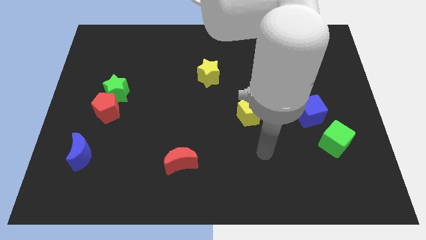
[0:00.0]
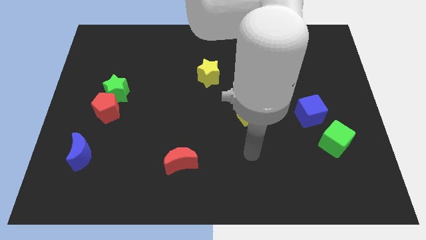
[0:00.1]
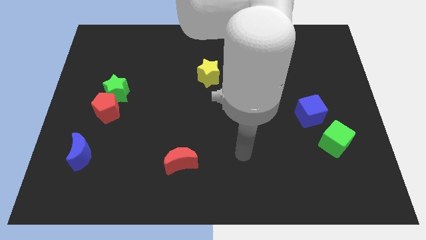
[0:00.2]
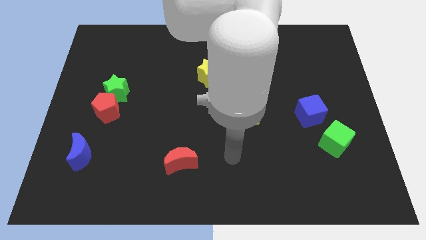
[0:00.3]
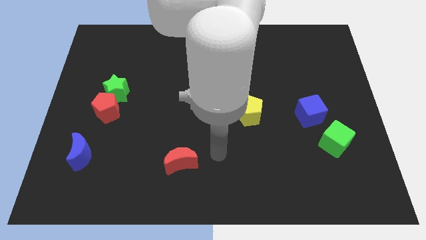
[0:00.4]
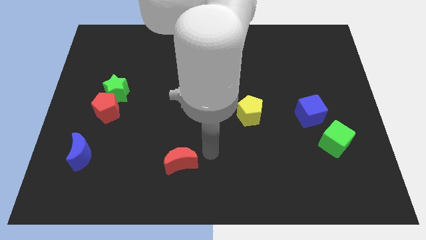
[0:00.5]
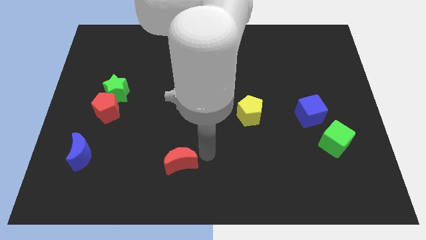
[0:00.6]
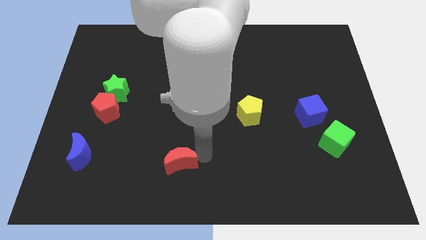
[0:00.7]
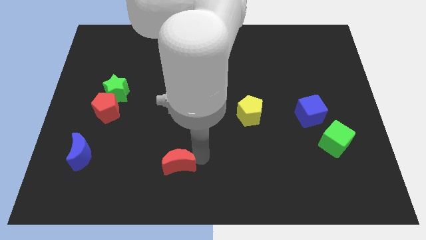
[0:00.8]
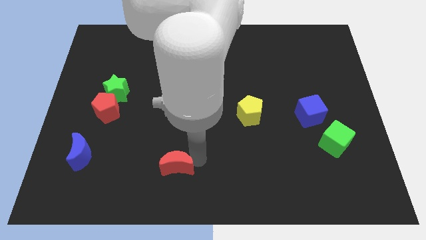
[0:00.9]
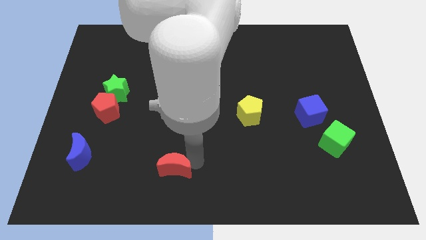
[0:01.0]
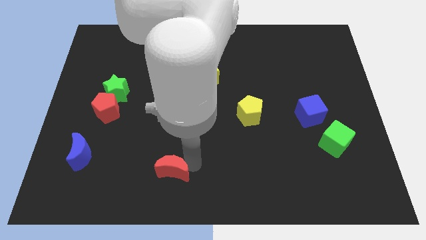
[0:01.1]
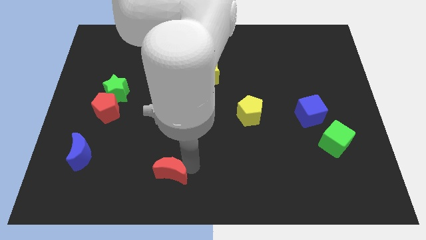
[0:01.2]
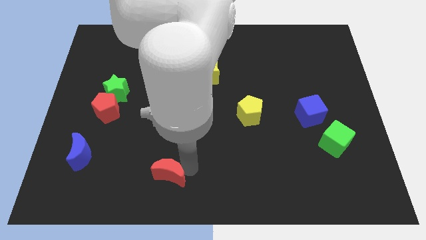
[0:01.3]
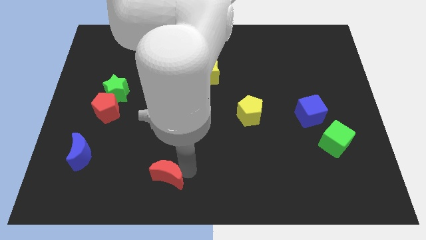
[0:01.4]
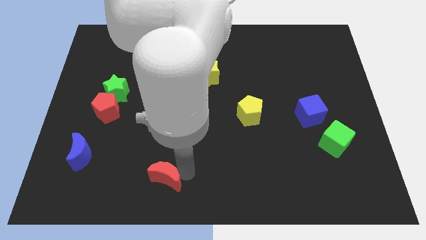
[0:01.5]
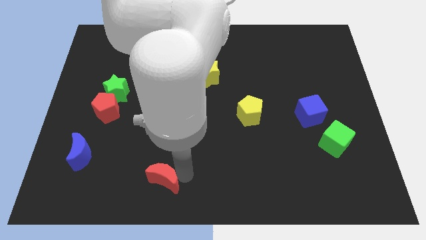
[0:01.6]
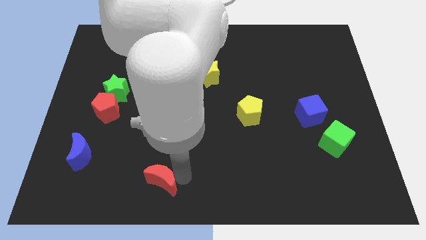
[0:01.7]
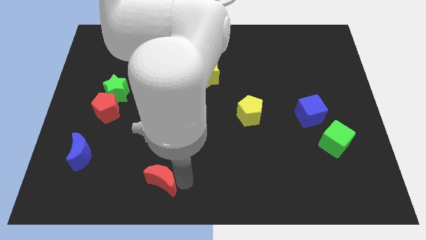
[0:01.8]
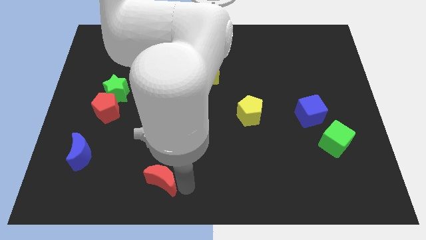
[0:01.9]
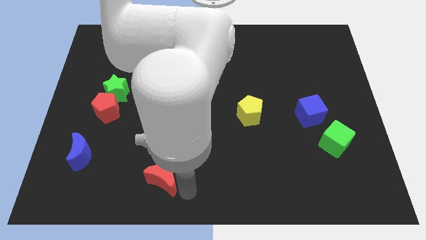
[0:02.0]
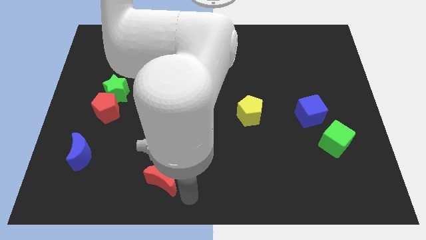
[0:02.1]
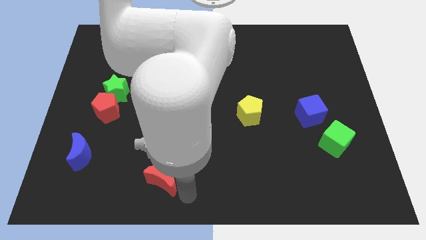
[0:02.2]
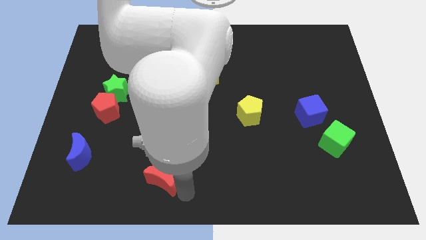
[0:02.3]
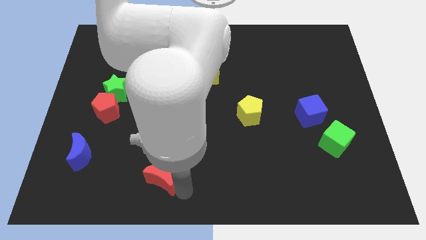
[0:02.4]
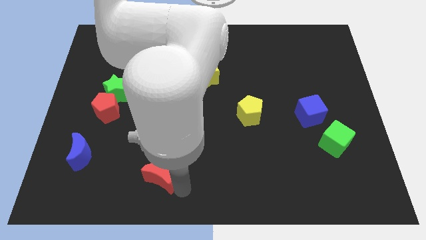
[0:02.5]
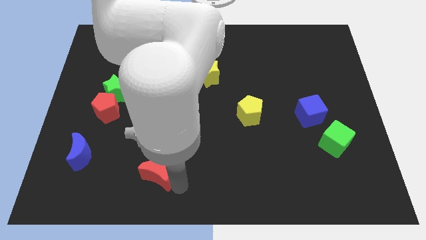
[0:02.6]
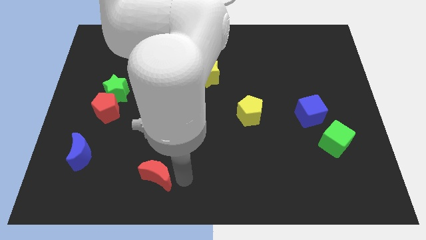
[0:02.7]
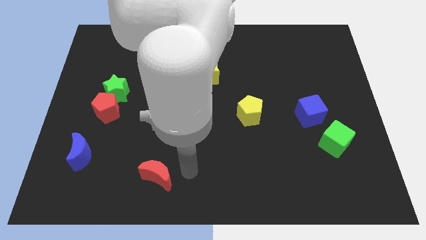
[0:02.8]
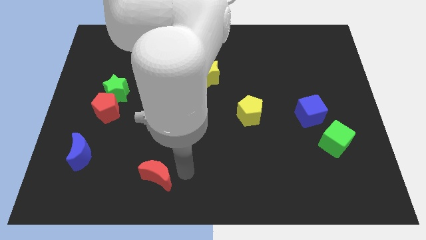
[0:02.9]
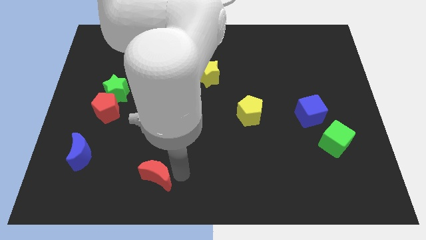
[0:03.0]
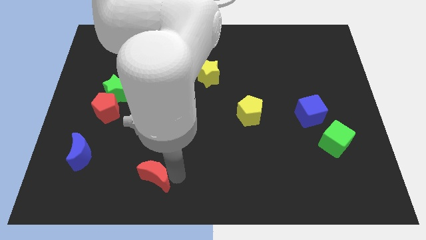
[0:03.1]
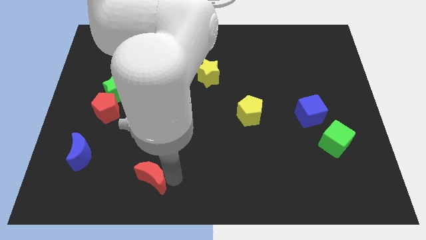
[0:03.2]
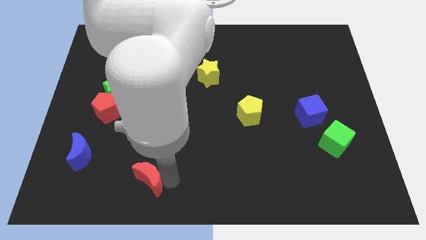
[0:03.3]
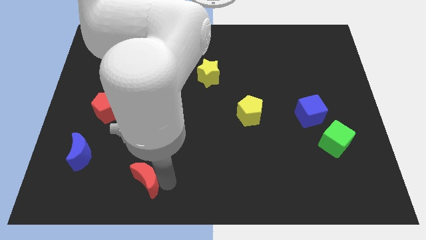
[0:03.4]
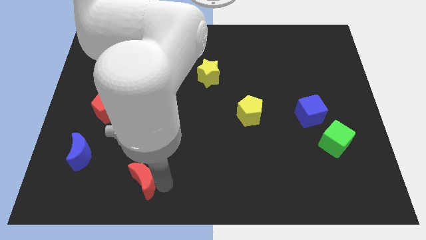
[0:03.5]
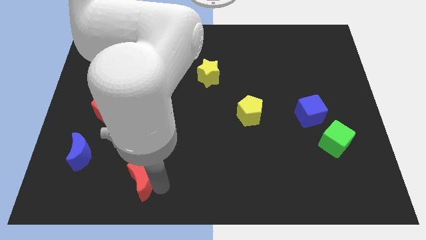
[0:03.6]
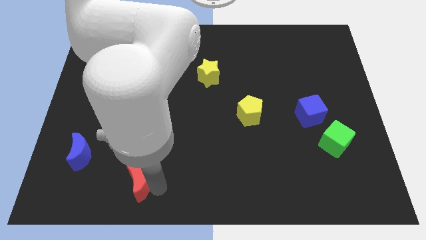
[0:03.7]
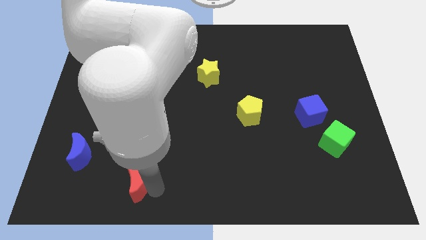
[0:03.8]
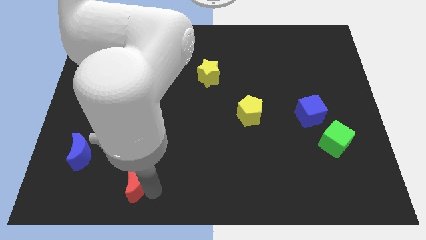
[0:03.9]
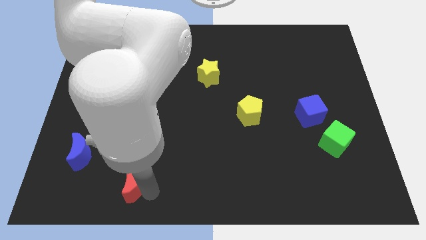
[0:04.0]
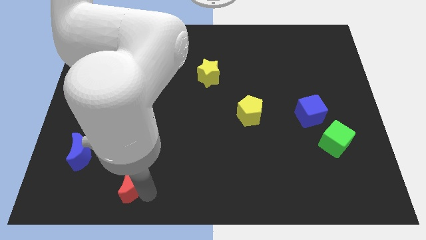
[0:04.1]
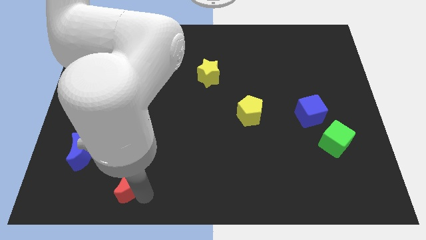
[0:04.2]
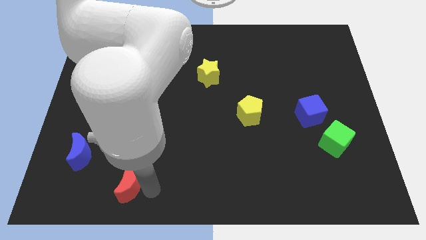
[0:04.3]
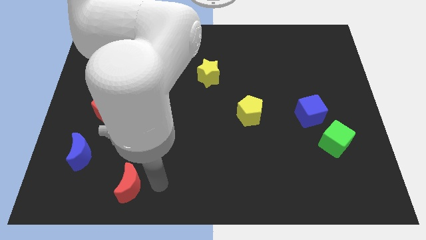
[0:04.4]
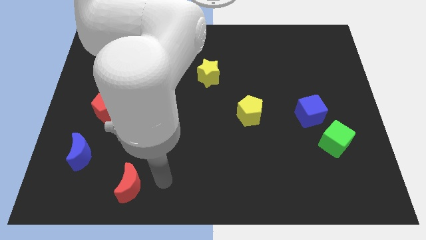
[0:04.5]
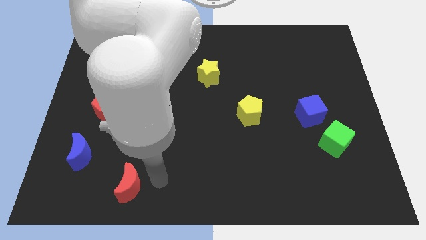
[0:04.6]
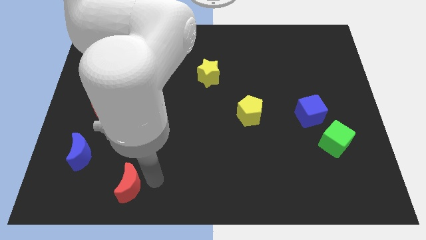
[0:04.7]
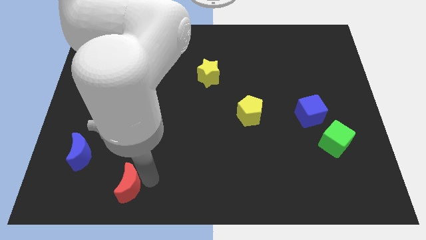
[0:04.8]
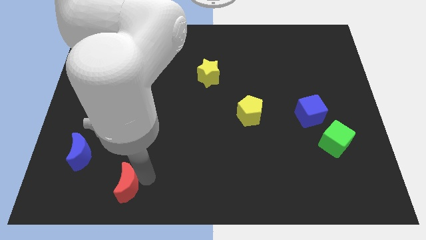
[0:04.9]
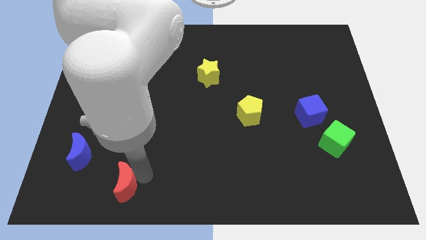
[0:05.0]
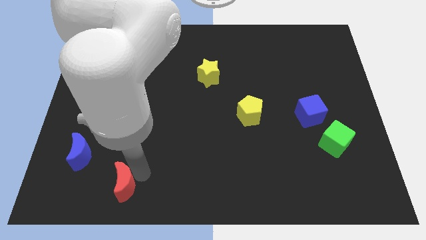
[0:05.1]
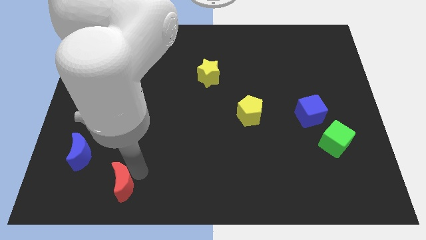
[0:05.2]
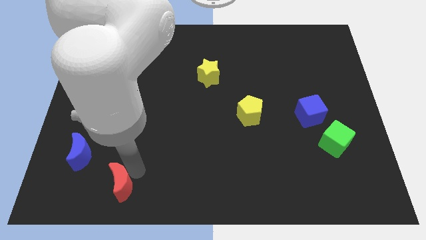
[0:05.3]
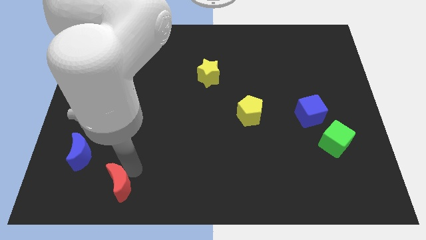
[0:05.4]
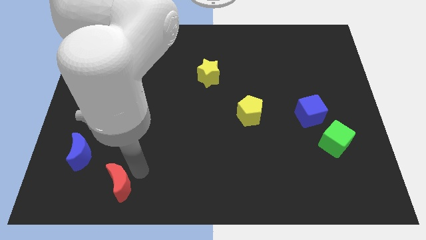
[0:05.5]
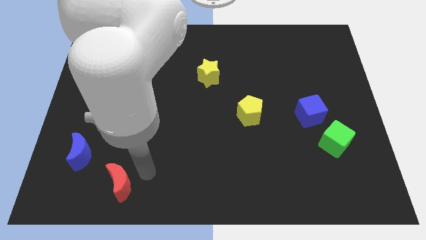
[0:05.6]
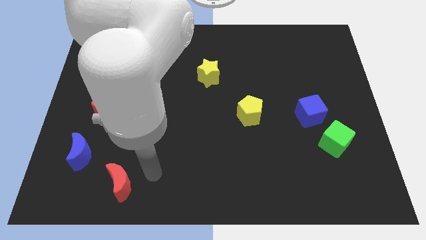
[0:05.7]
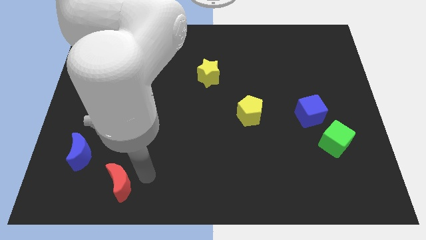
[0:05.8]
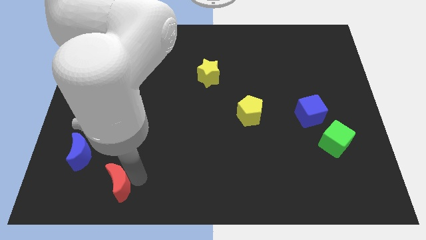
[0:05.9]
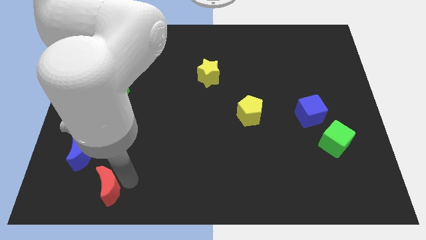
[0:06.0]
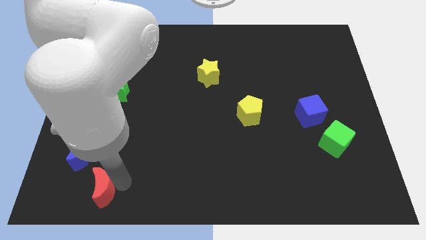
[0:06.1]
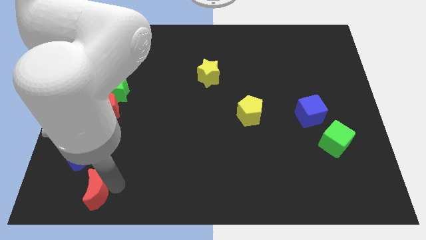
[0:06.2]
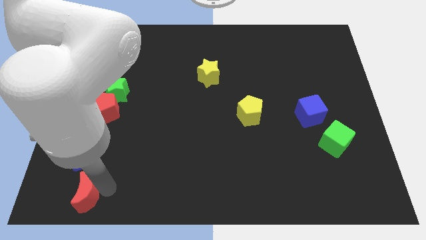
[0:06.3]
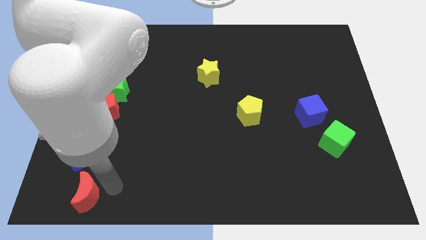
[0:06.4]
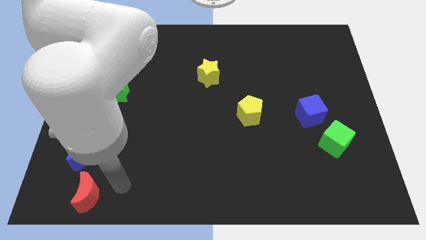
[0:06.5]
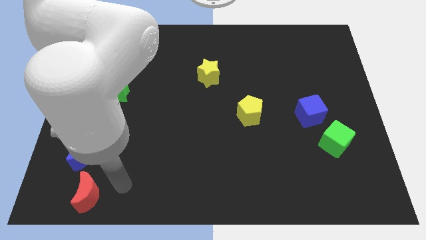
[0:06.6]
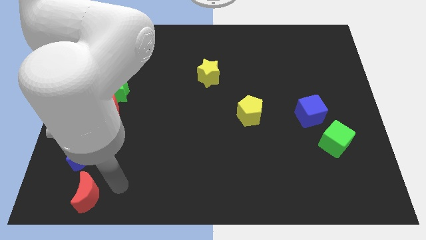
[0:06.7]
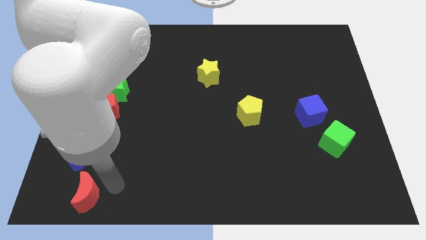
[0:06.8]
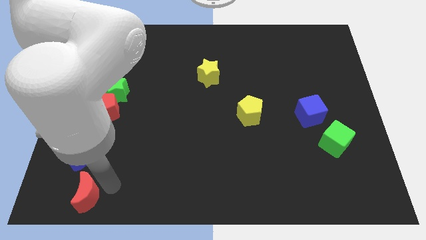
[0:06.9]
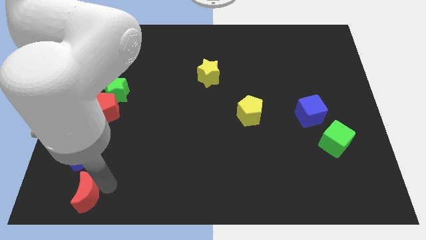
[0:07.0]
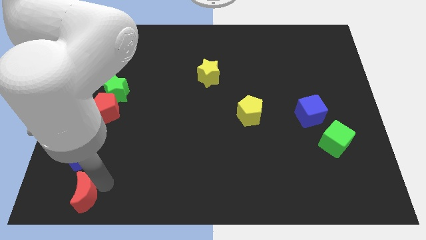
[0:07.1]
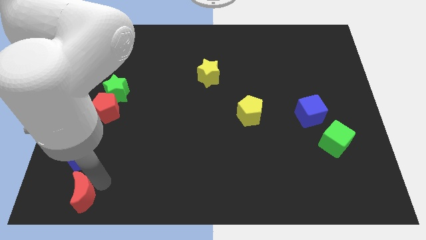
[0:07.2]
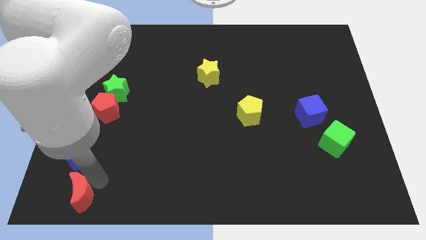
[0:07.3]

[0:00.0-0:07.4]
slide the red moon to the lower left corner
